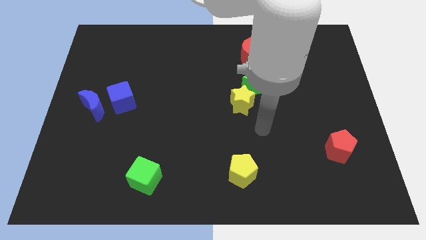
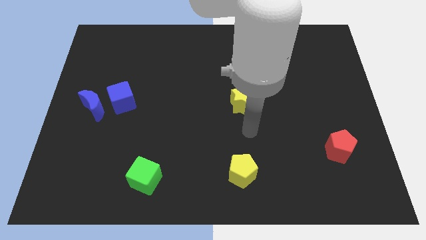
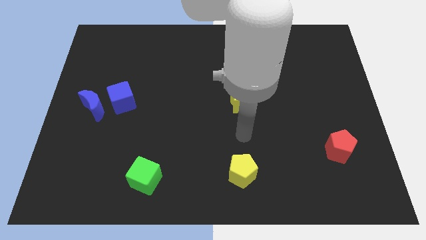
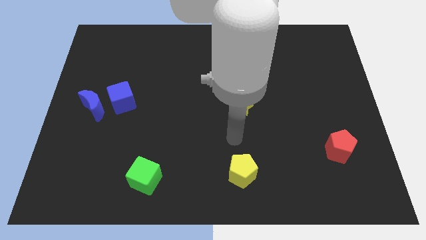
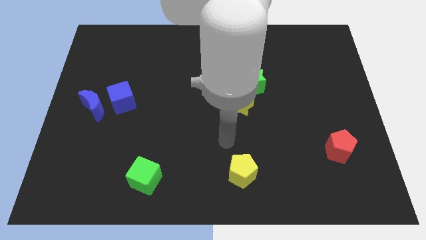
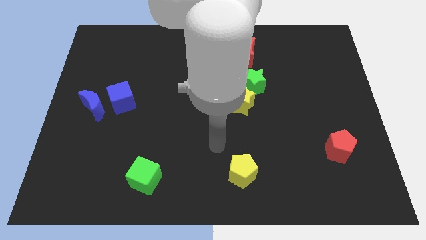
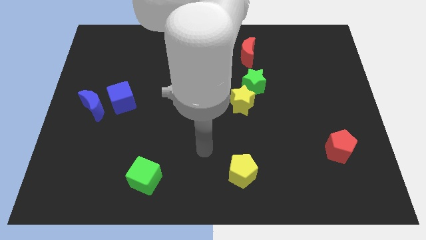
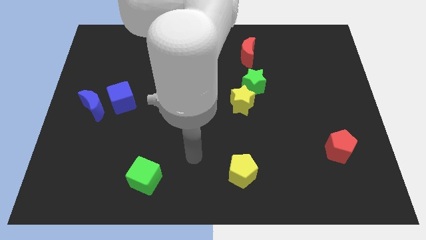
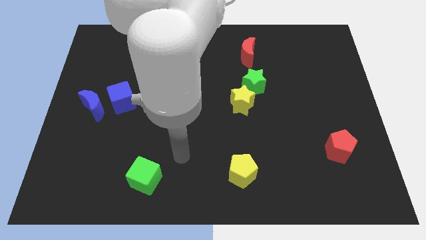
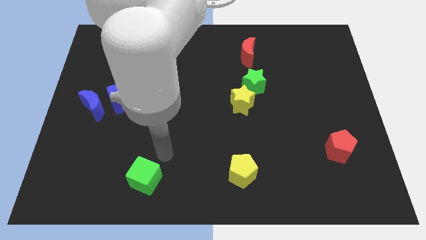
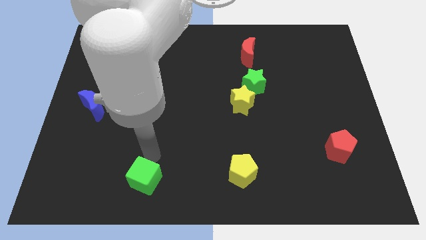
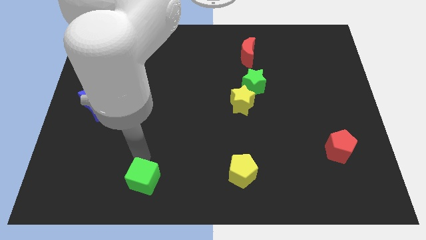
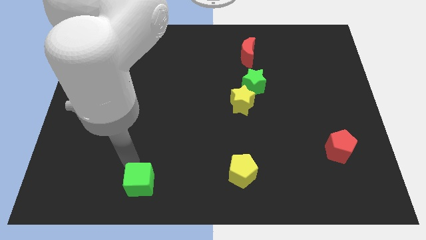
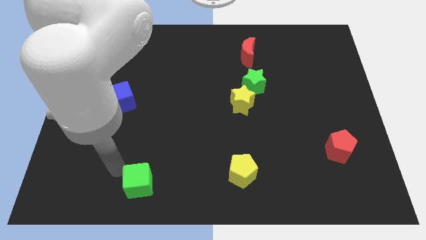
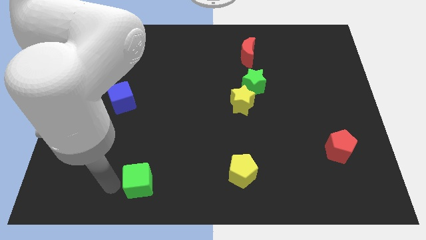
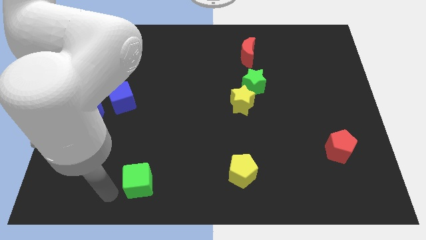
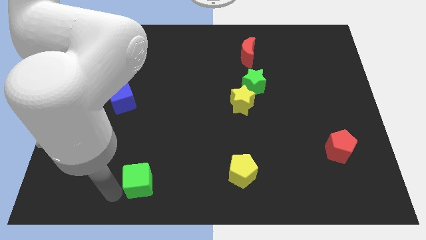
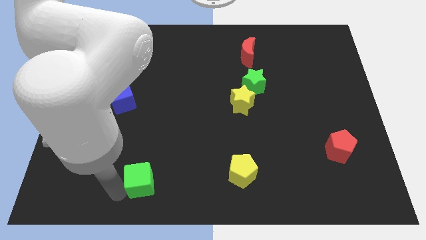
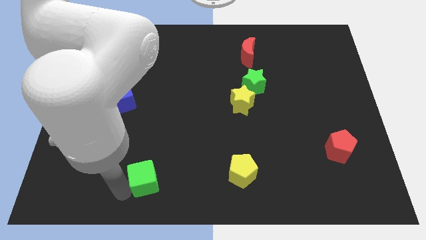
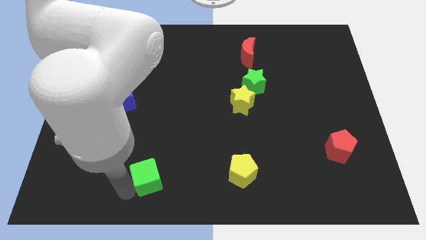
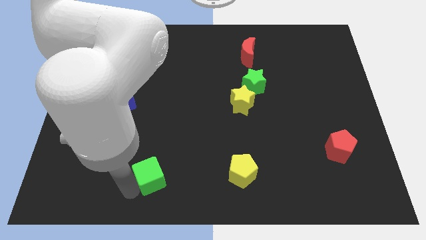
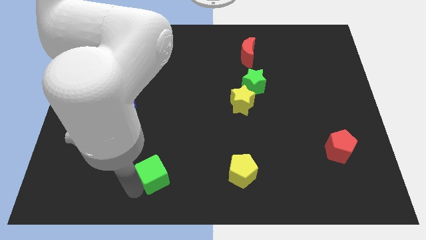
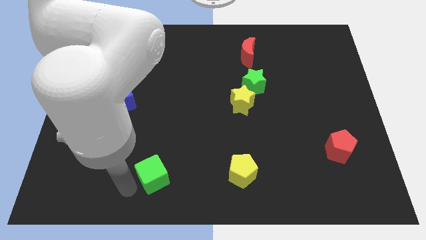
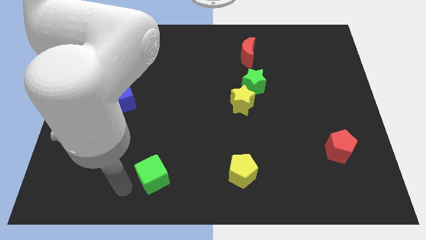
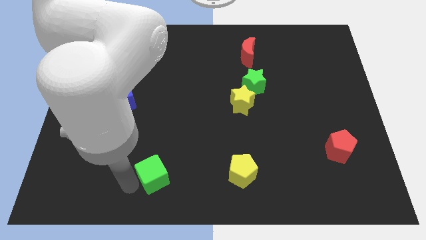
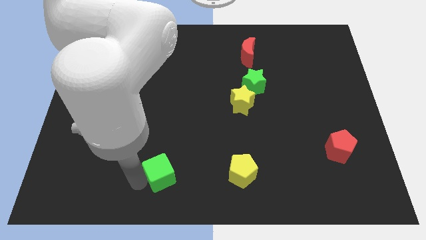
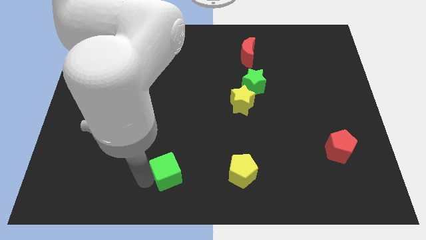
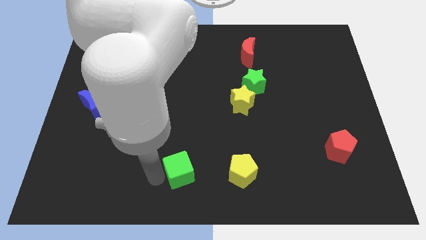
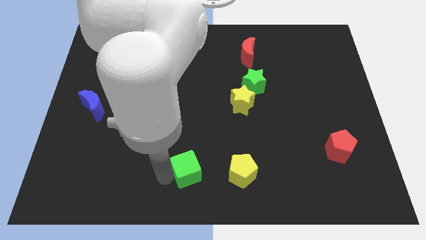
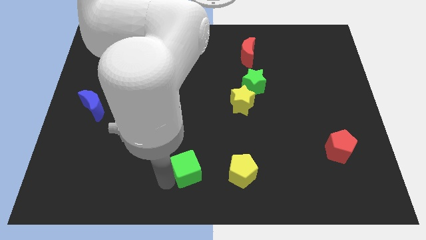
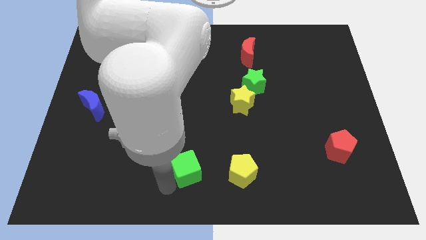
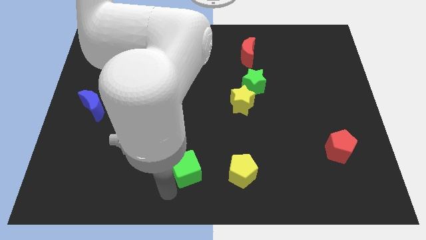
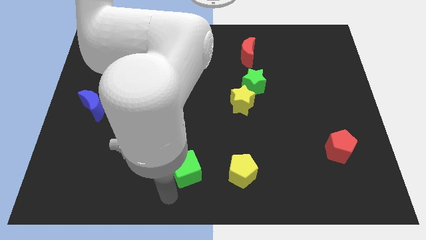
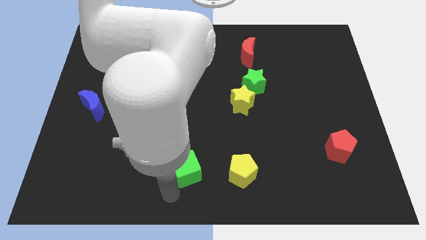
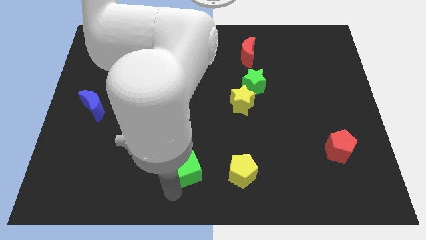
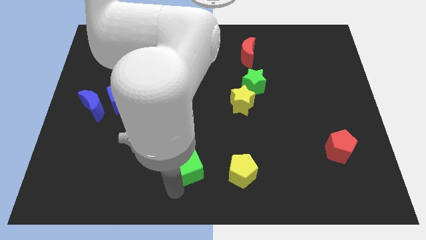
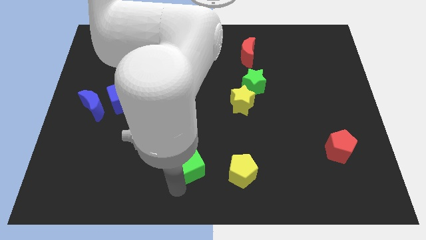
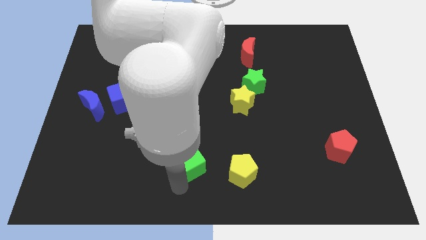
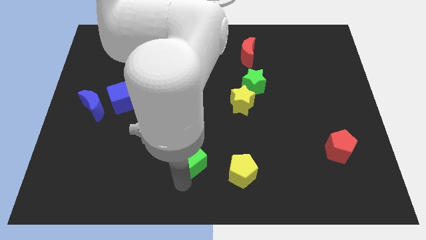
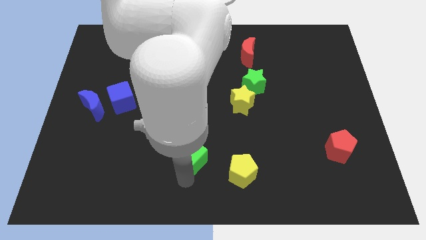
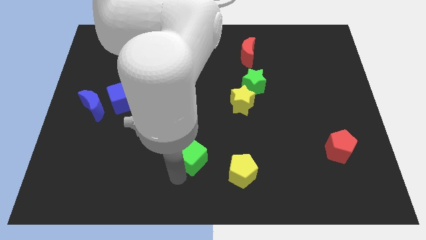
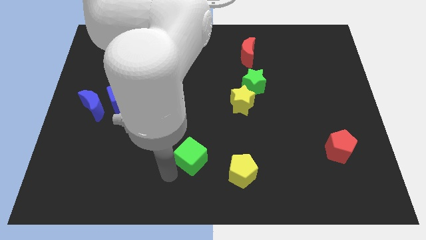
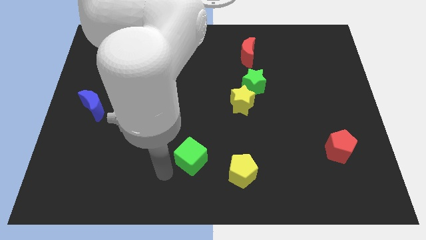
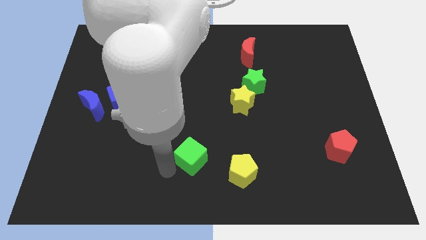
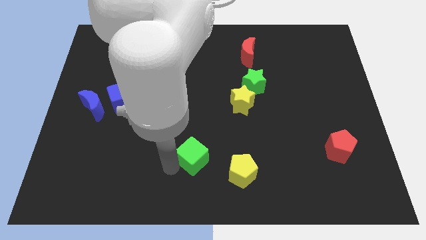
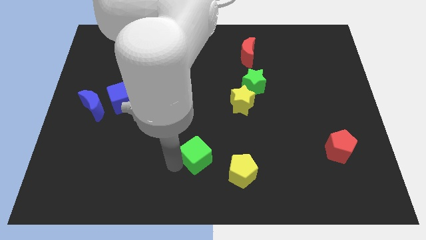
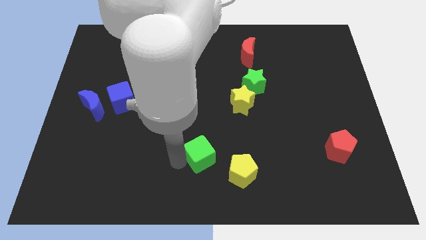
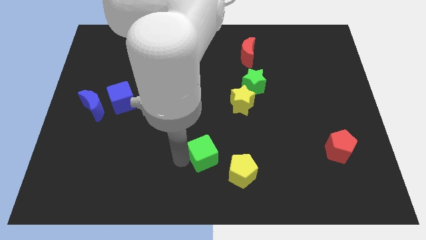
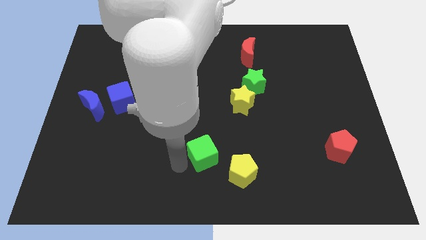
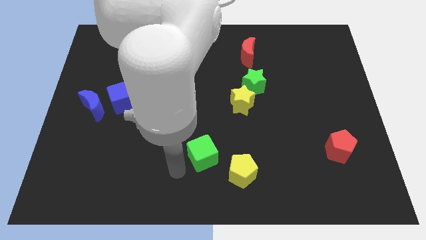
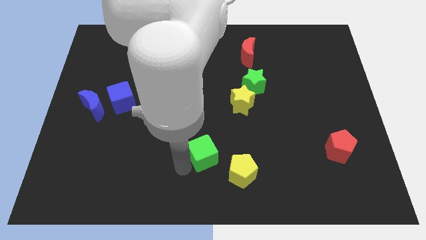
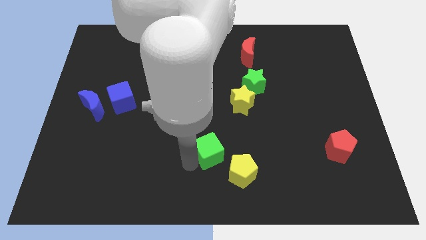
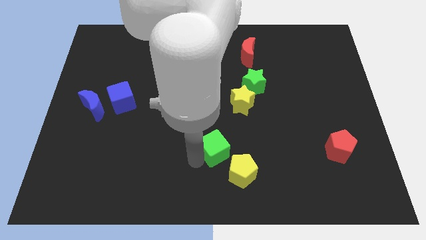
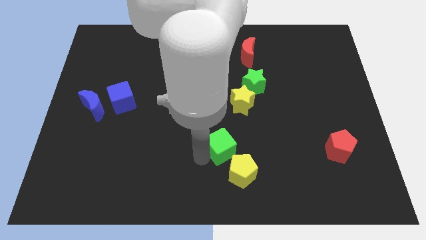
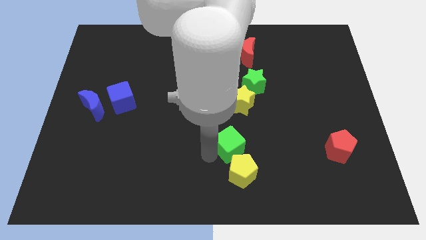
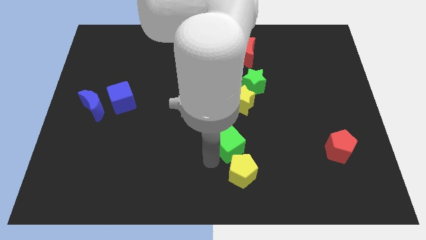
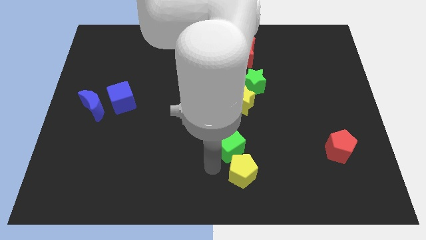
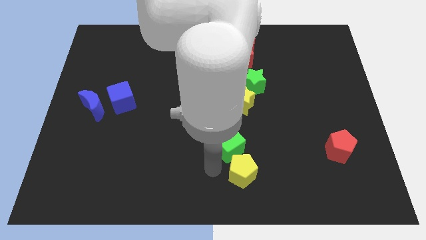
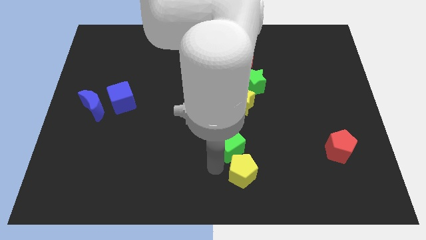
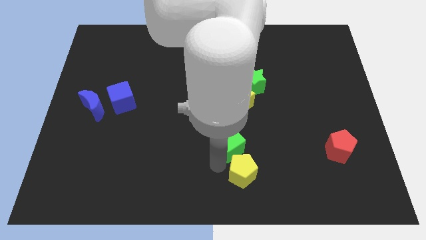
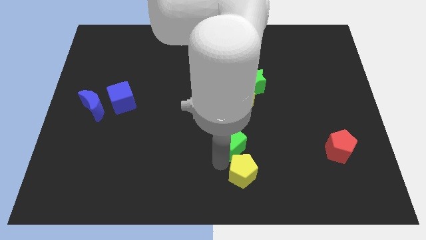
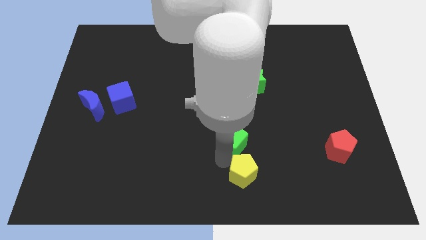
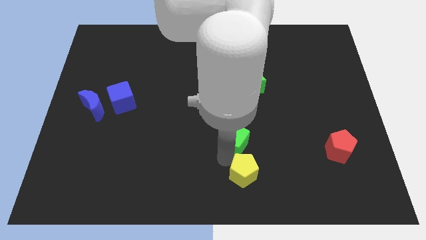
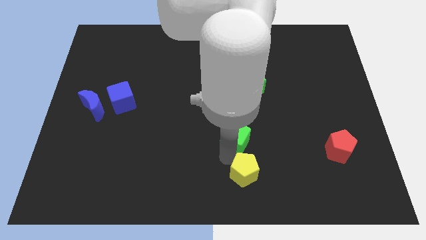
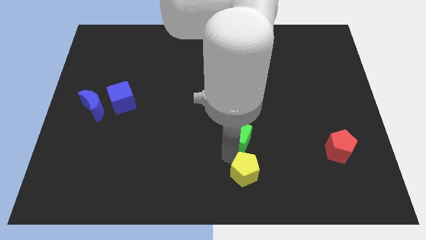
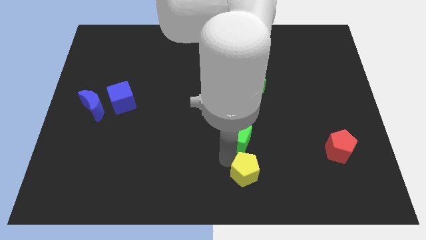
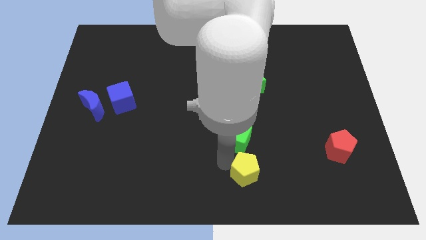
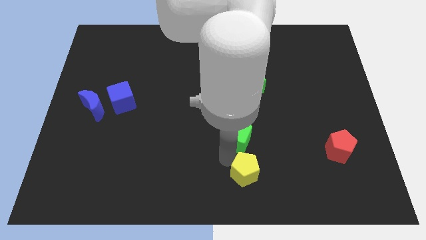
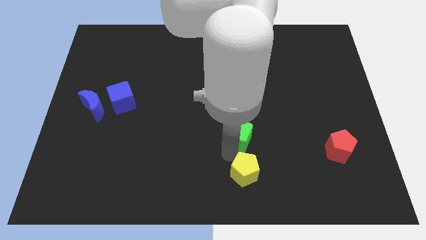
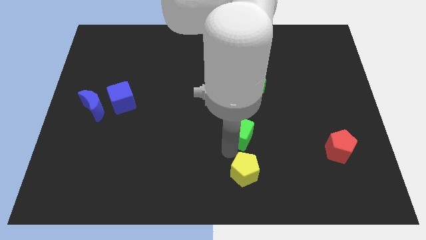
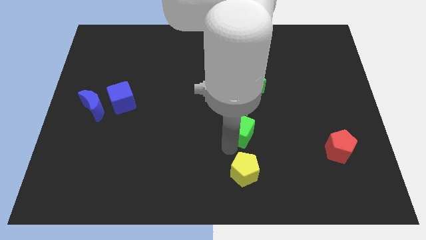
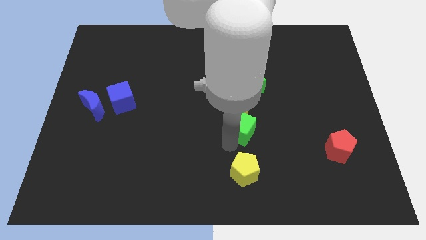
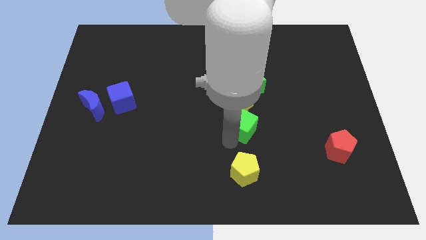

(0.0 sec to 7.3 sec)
put the green cube diagonally down and to the right of the yellow star
